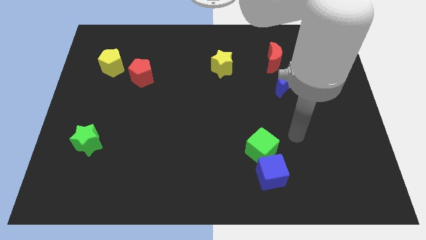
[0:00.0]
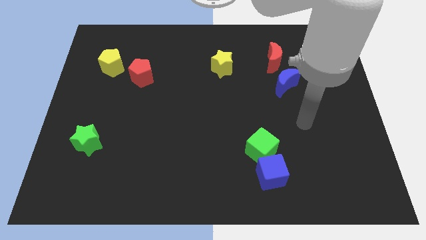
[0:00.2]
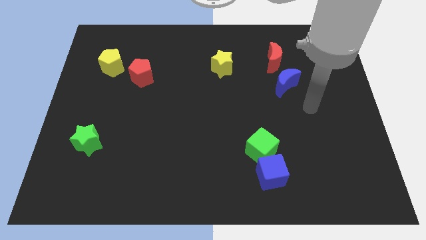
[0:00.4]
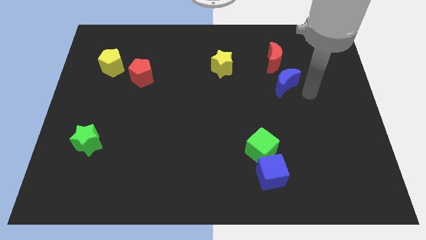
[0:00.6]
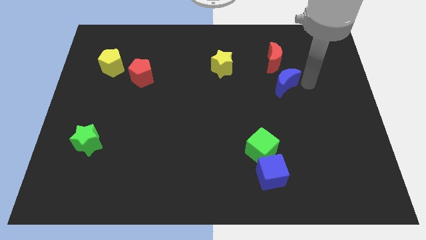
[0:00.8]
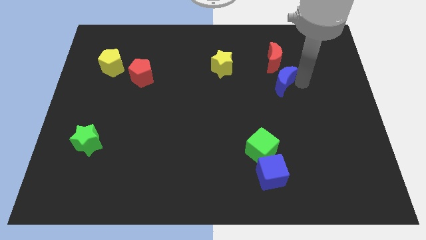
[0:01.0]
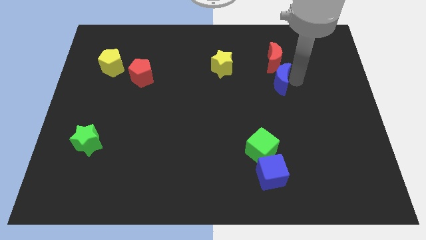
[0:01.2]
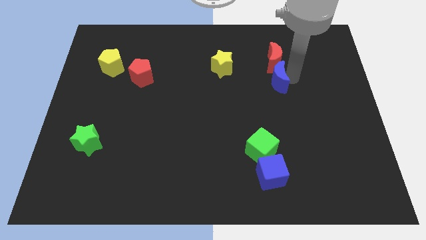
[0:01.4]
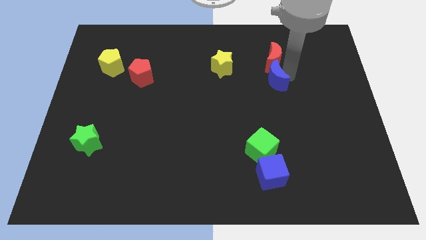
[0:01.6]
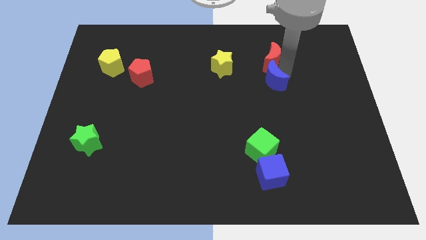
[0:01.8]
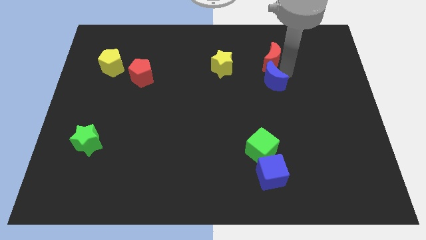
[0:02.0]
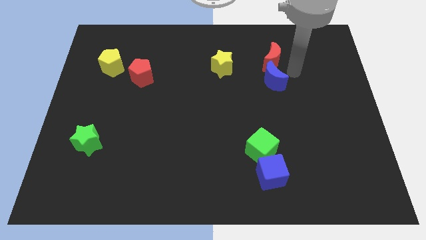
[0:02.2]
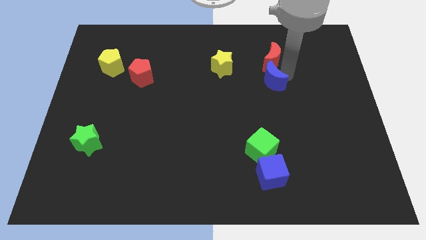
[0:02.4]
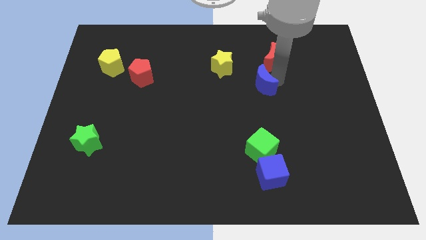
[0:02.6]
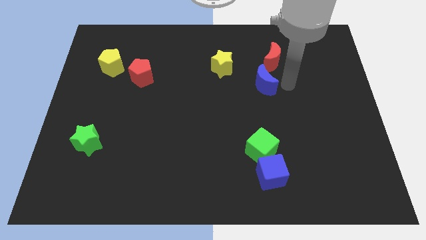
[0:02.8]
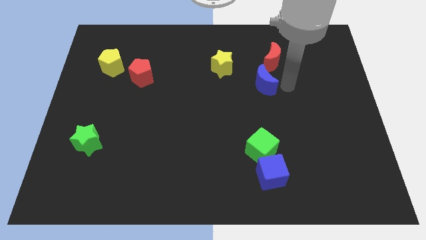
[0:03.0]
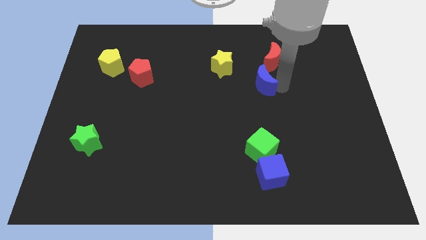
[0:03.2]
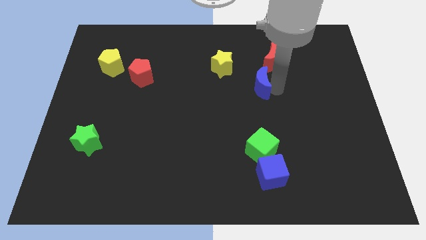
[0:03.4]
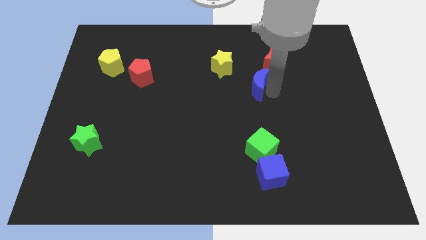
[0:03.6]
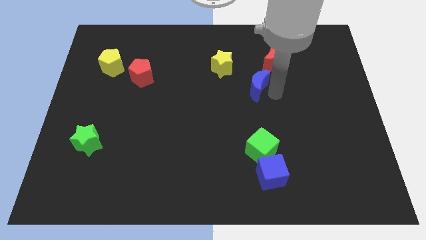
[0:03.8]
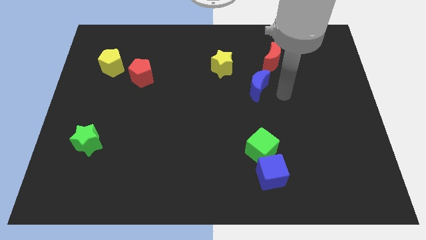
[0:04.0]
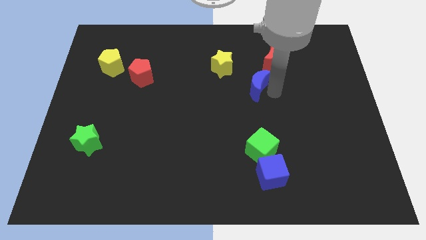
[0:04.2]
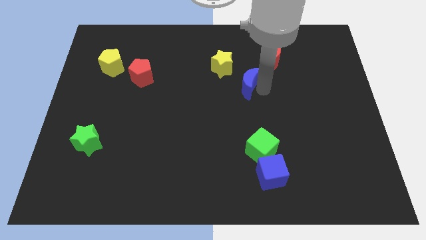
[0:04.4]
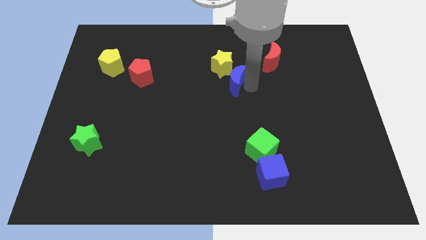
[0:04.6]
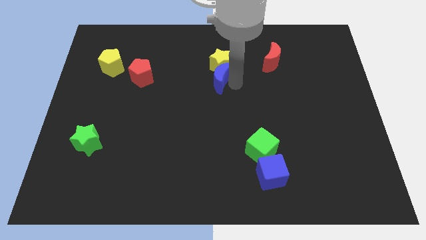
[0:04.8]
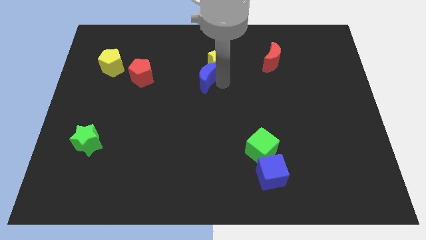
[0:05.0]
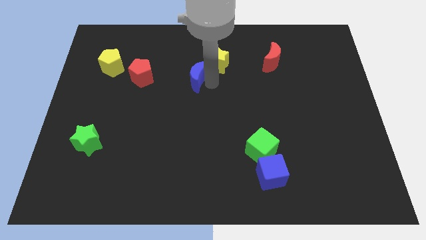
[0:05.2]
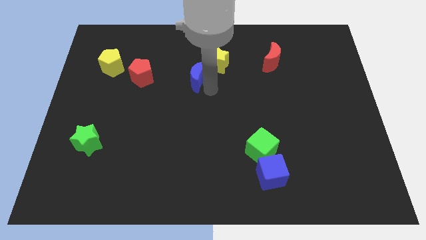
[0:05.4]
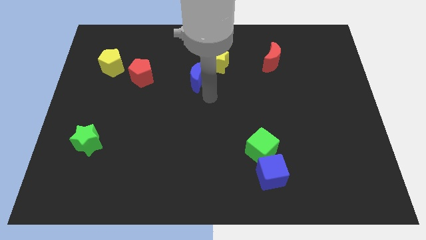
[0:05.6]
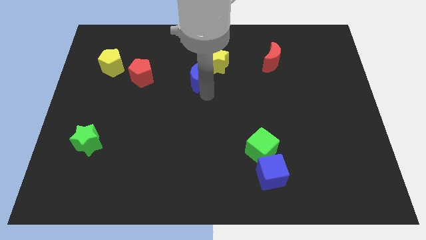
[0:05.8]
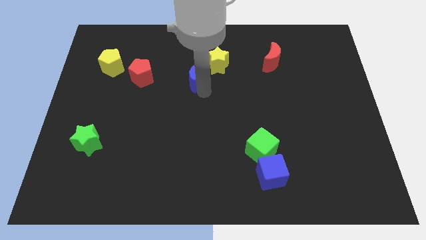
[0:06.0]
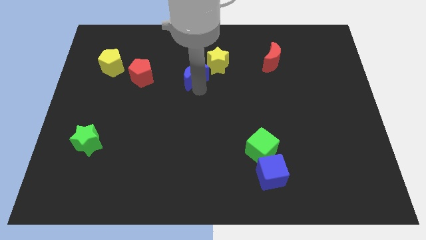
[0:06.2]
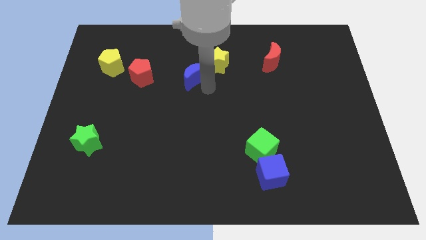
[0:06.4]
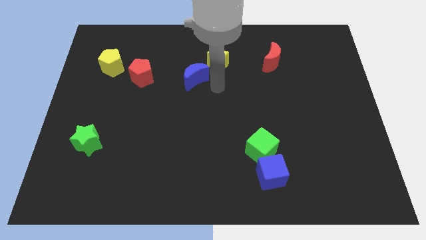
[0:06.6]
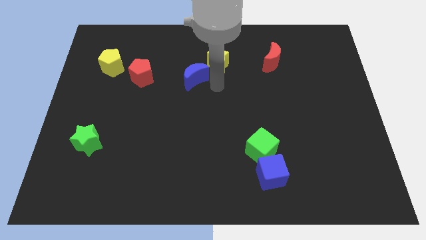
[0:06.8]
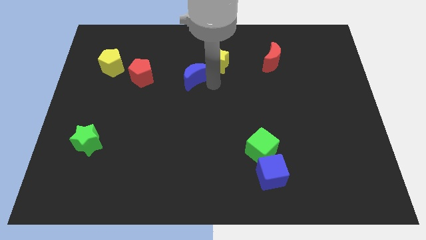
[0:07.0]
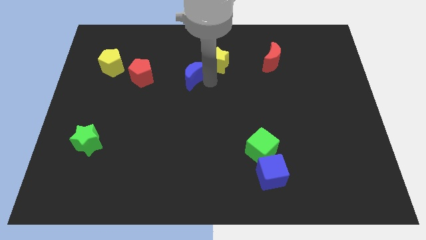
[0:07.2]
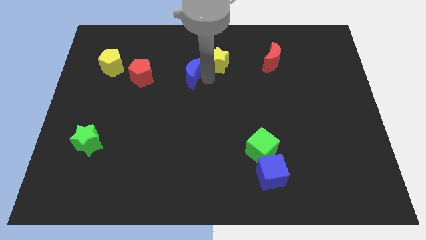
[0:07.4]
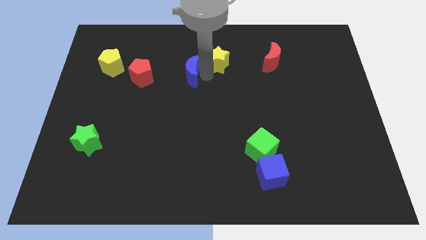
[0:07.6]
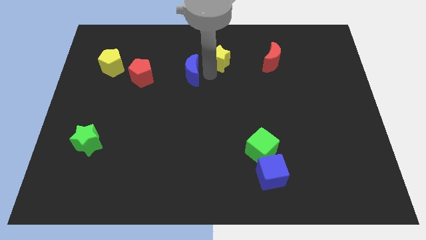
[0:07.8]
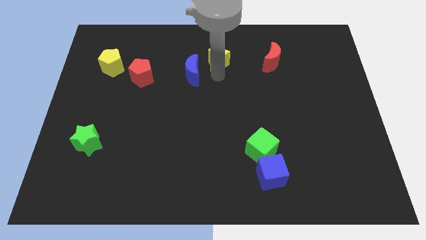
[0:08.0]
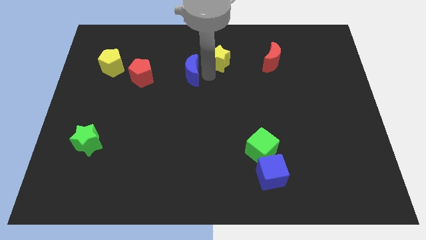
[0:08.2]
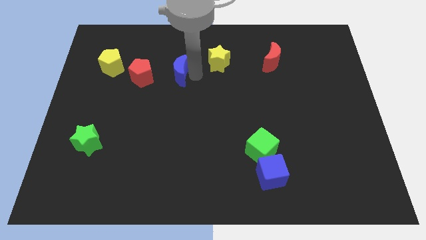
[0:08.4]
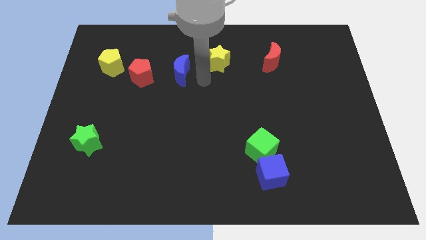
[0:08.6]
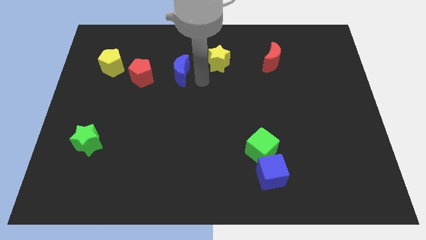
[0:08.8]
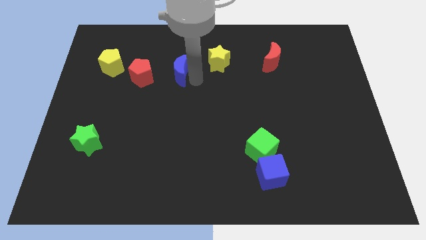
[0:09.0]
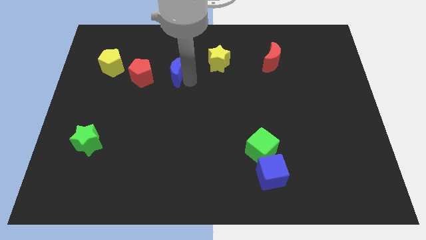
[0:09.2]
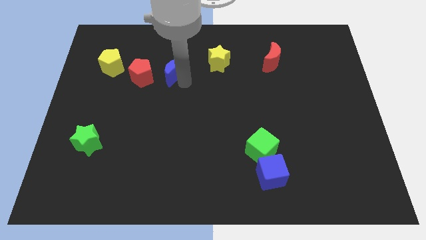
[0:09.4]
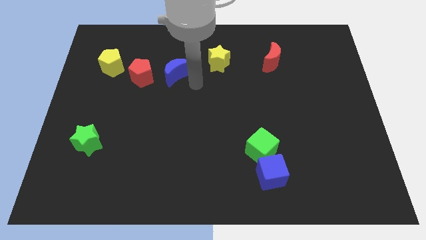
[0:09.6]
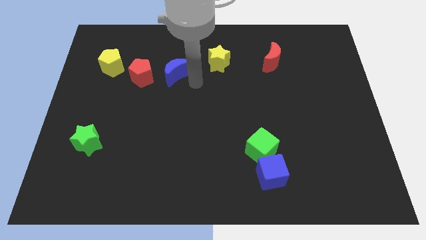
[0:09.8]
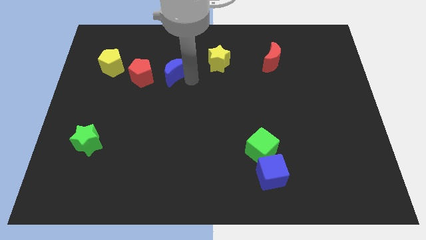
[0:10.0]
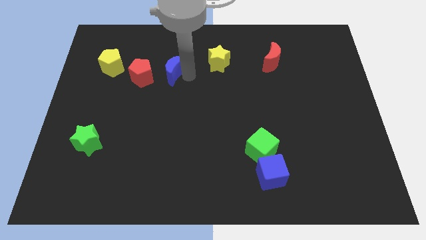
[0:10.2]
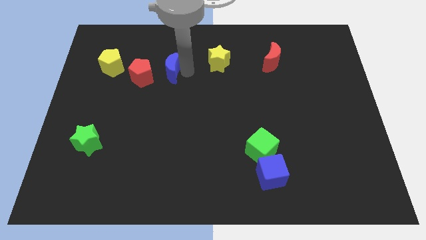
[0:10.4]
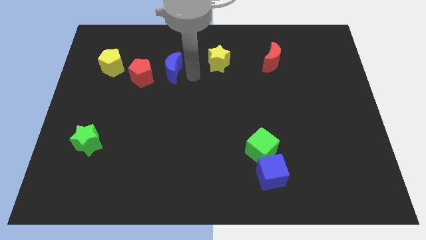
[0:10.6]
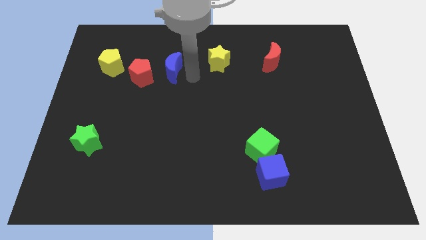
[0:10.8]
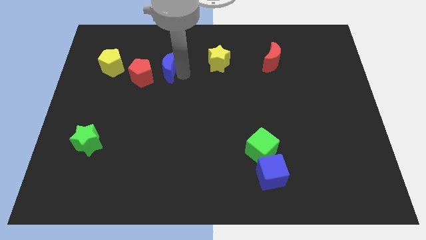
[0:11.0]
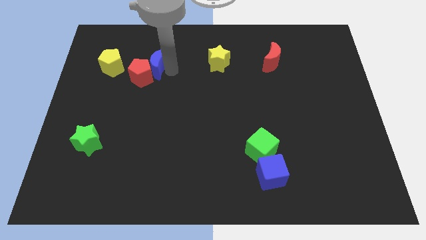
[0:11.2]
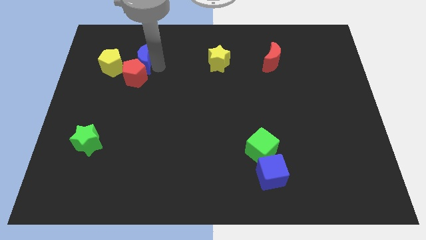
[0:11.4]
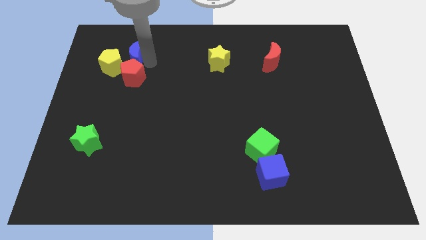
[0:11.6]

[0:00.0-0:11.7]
move the blue moon to the top left of the red pentagon
